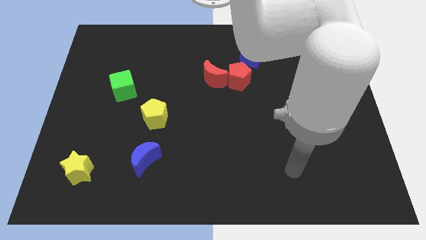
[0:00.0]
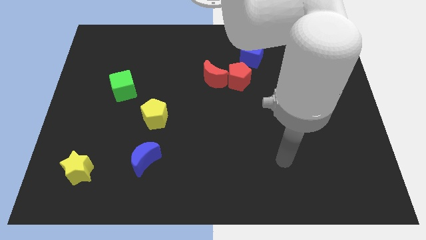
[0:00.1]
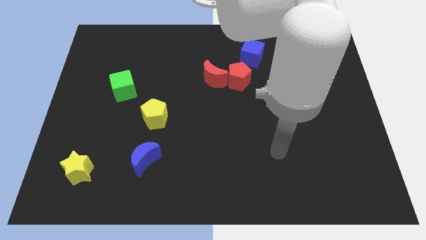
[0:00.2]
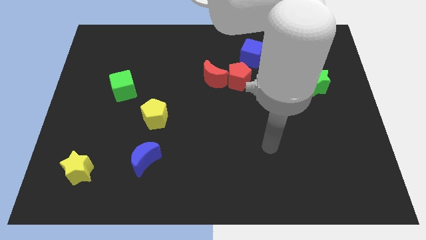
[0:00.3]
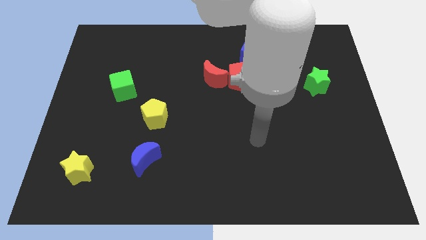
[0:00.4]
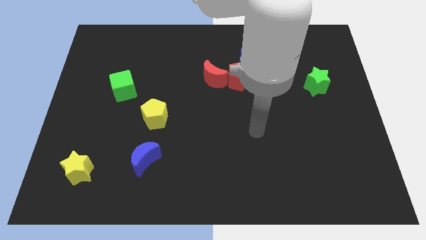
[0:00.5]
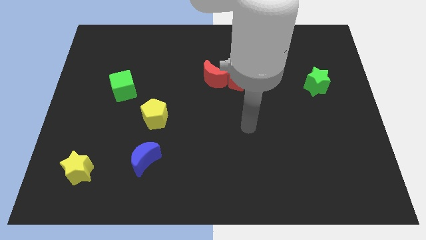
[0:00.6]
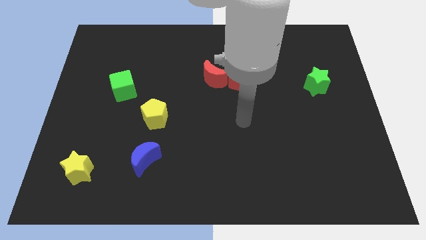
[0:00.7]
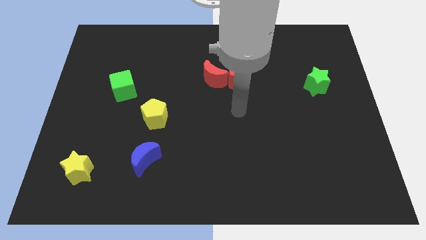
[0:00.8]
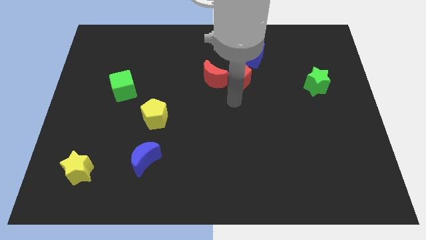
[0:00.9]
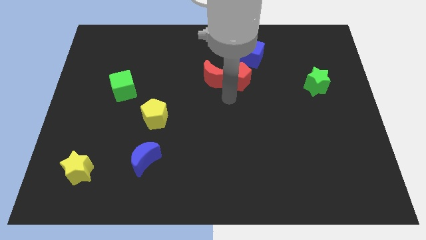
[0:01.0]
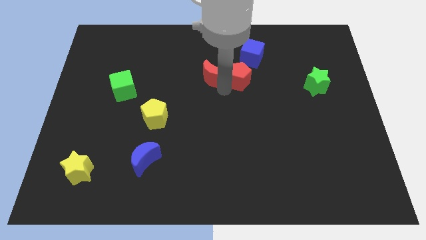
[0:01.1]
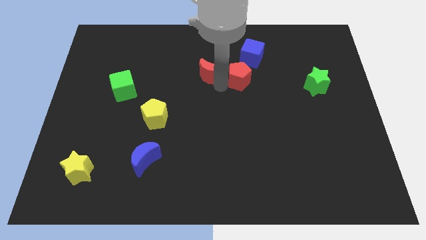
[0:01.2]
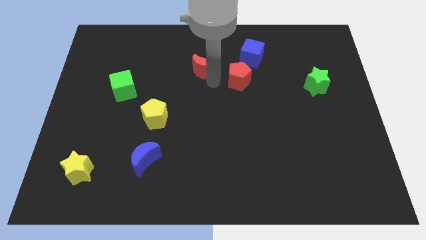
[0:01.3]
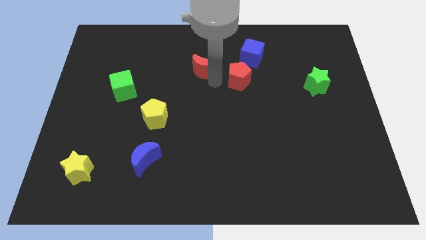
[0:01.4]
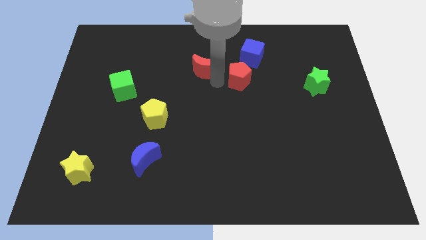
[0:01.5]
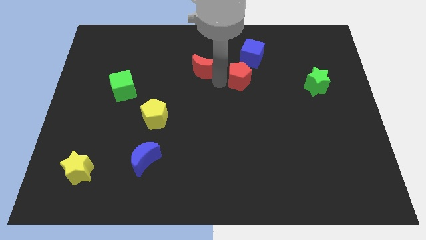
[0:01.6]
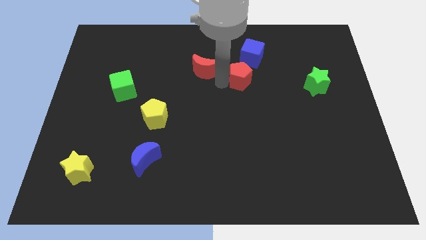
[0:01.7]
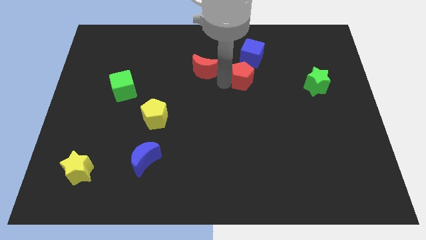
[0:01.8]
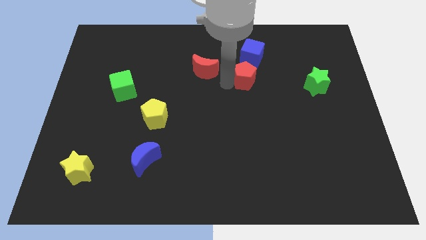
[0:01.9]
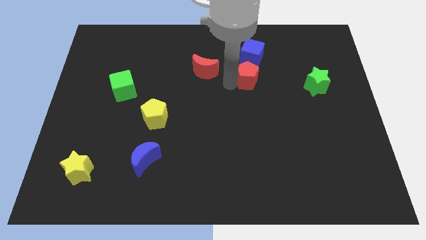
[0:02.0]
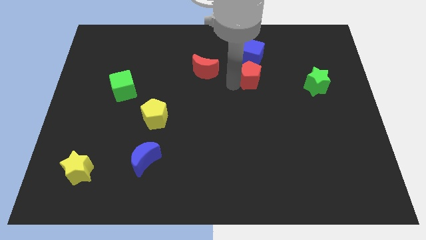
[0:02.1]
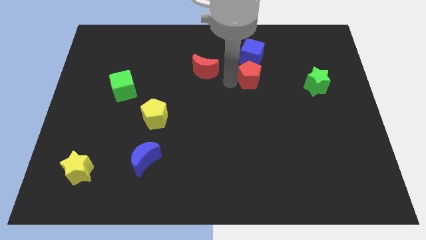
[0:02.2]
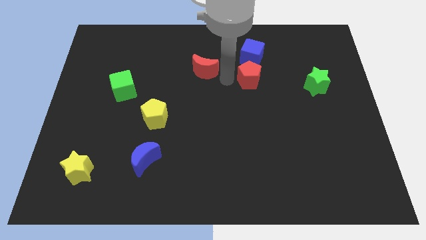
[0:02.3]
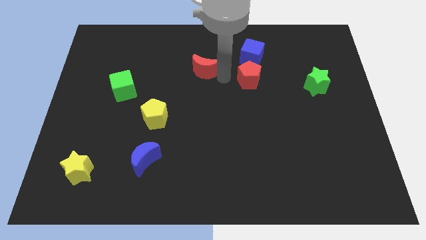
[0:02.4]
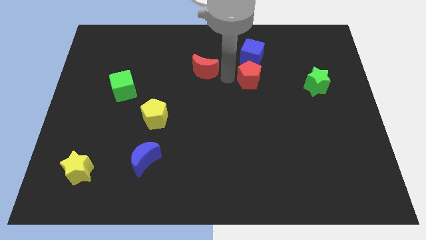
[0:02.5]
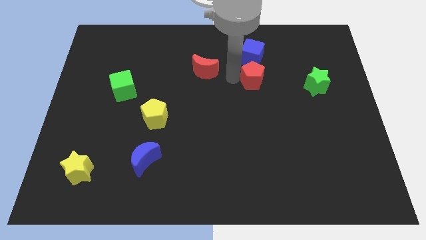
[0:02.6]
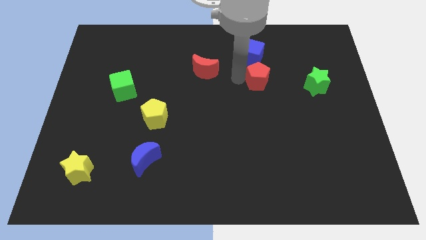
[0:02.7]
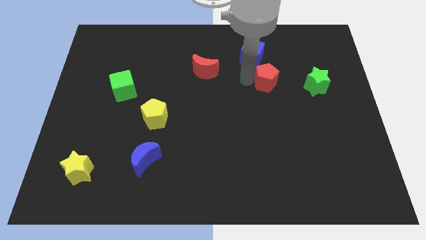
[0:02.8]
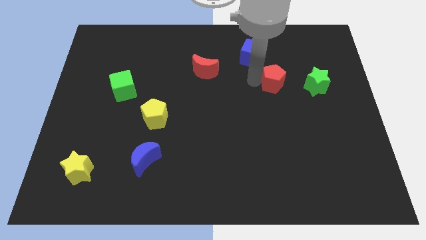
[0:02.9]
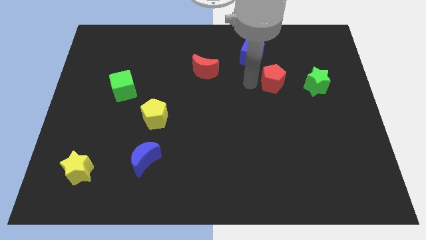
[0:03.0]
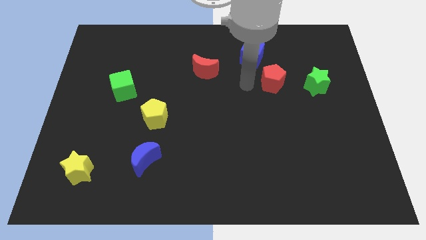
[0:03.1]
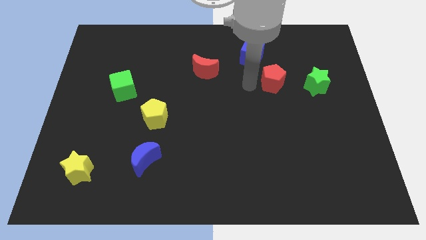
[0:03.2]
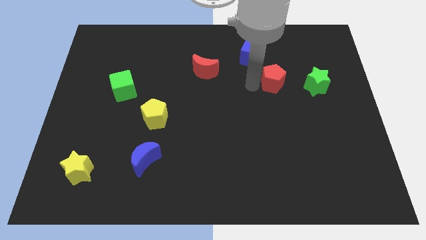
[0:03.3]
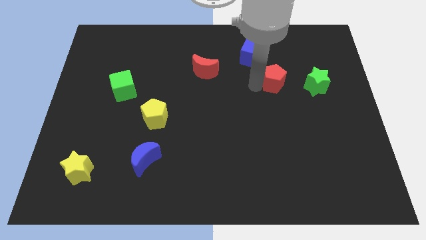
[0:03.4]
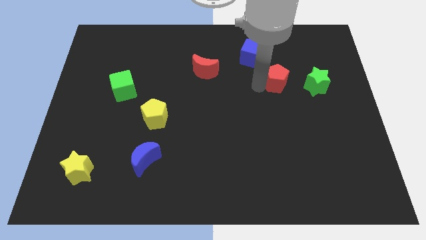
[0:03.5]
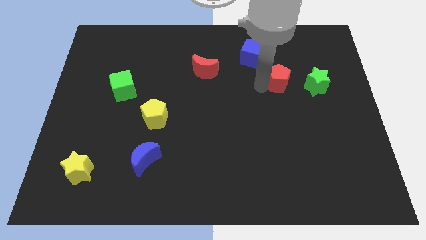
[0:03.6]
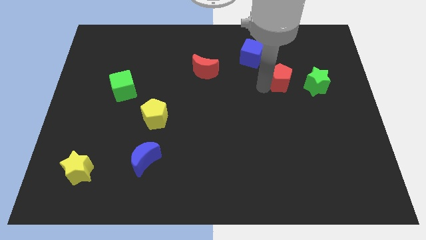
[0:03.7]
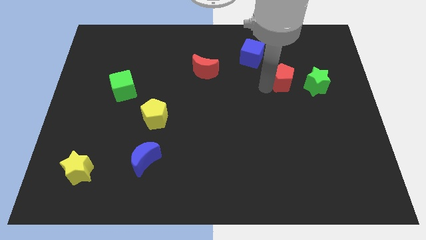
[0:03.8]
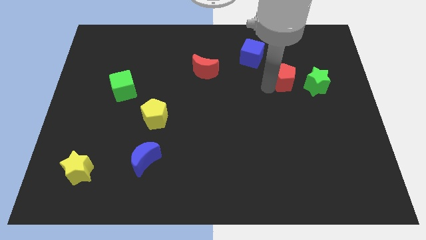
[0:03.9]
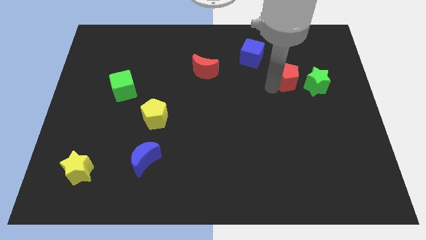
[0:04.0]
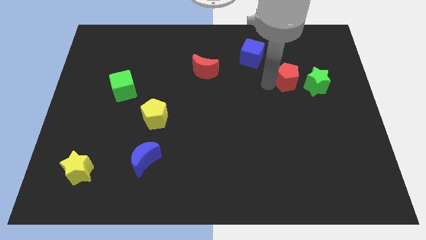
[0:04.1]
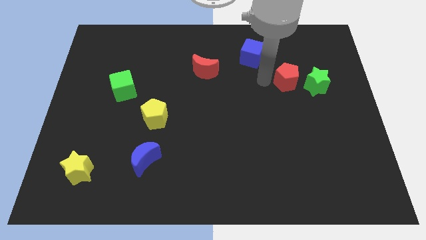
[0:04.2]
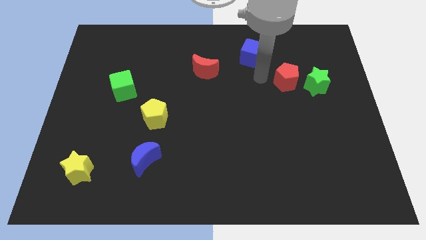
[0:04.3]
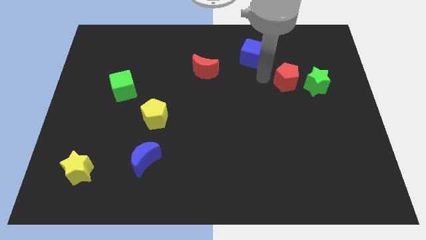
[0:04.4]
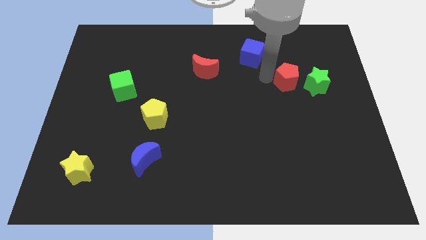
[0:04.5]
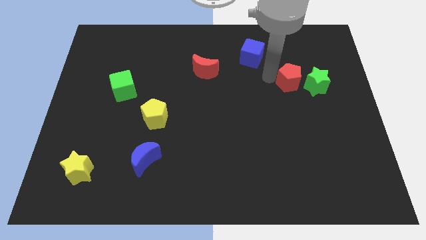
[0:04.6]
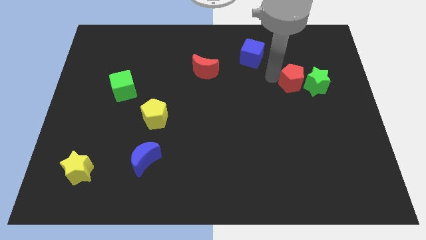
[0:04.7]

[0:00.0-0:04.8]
move the red pentagon towards the green star

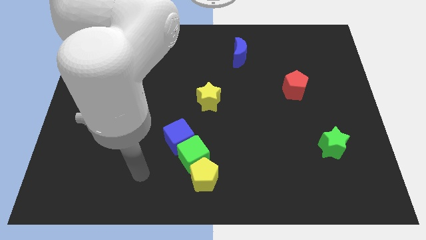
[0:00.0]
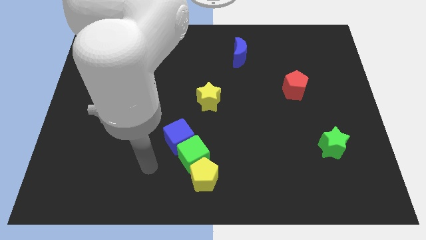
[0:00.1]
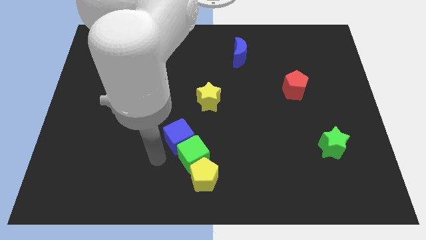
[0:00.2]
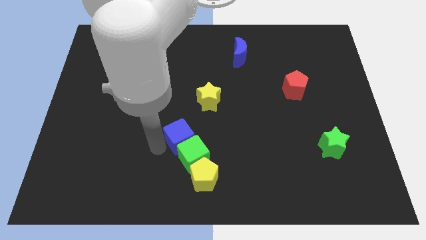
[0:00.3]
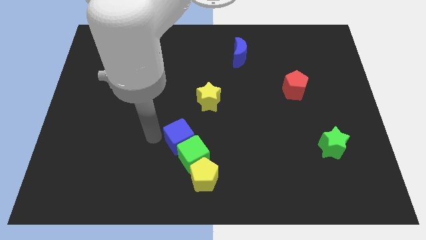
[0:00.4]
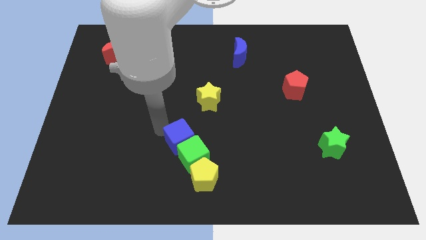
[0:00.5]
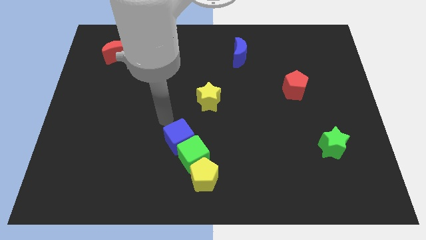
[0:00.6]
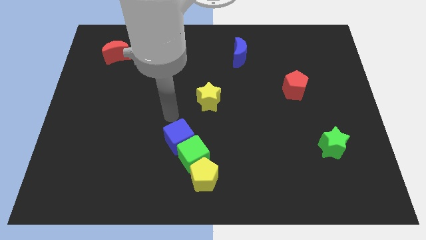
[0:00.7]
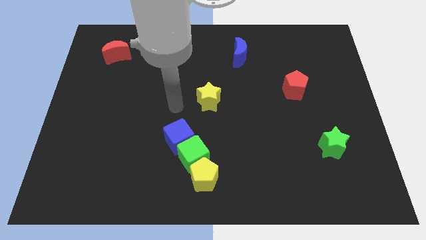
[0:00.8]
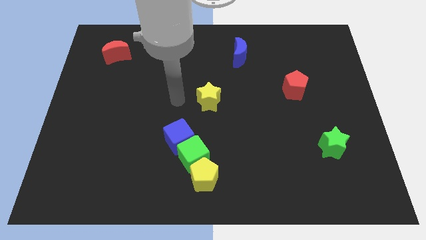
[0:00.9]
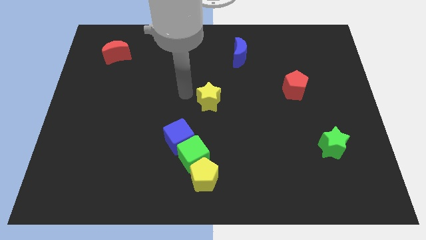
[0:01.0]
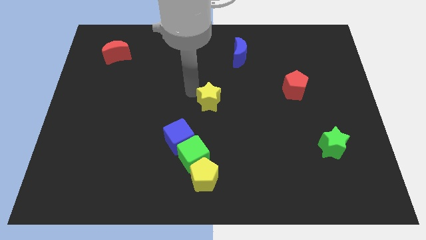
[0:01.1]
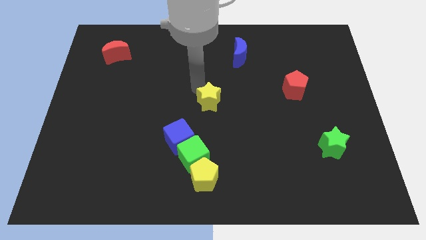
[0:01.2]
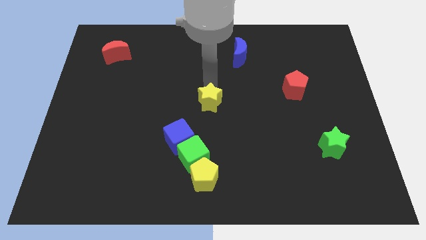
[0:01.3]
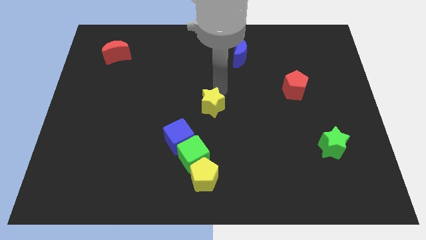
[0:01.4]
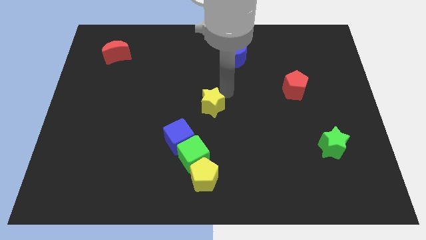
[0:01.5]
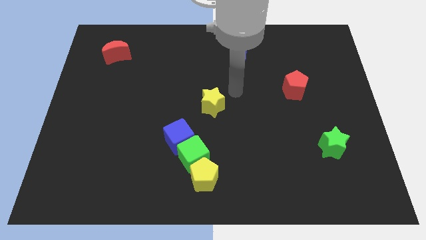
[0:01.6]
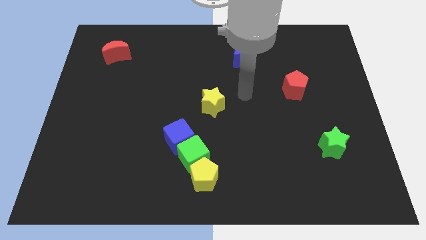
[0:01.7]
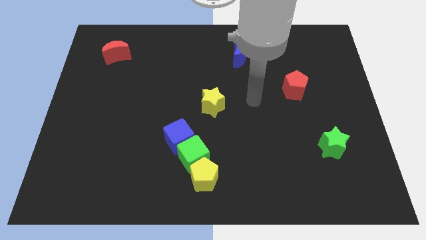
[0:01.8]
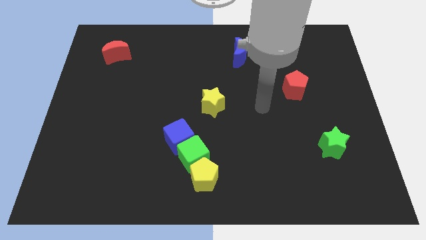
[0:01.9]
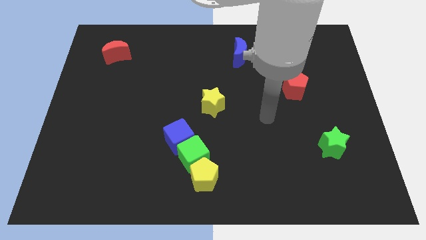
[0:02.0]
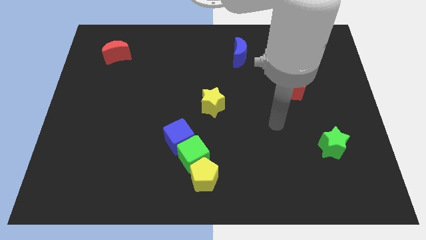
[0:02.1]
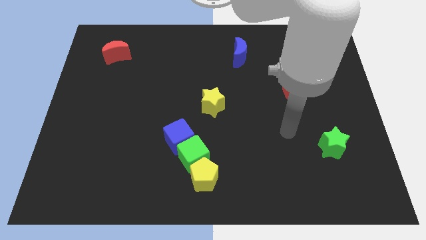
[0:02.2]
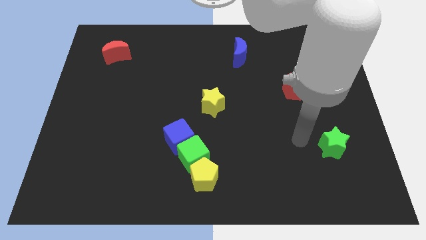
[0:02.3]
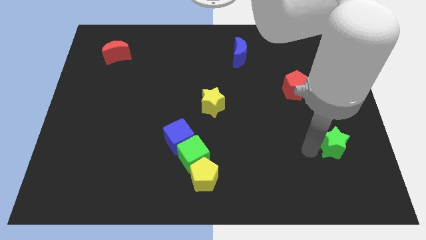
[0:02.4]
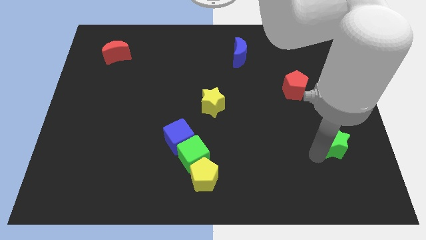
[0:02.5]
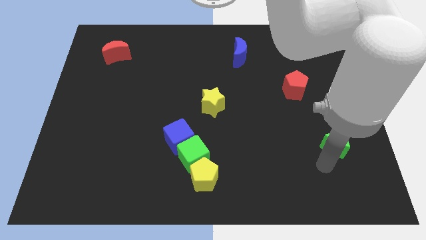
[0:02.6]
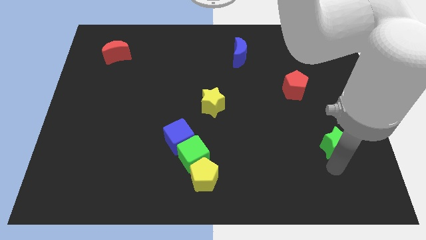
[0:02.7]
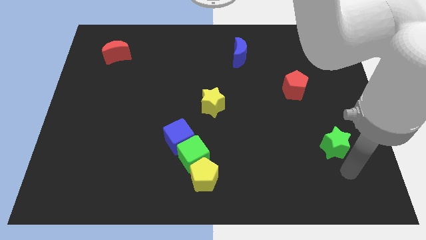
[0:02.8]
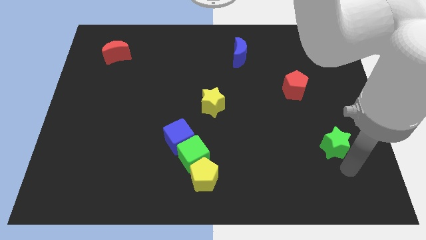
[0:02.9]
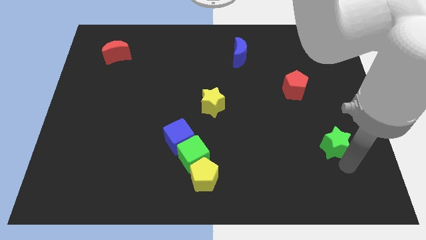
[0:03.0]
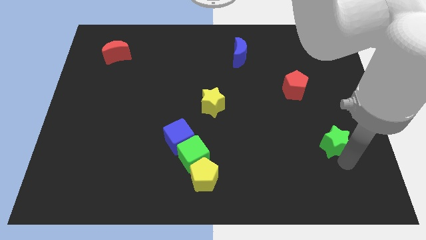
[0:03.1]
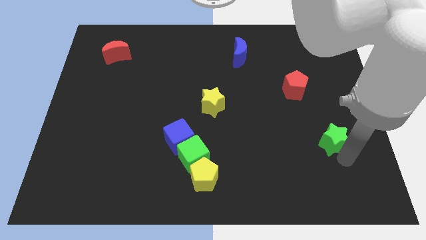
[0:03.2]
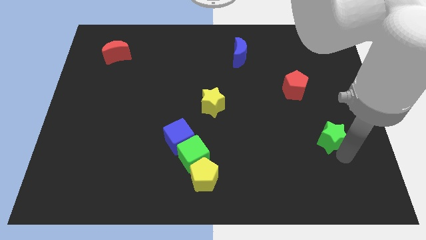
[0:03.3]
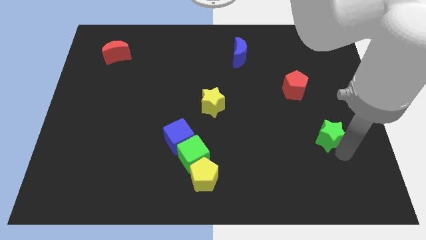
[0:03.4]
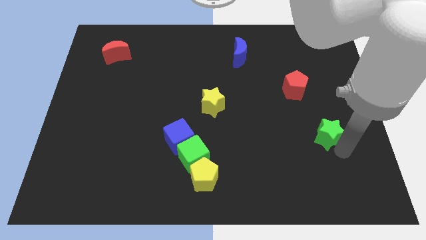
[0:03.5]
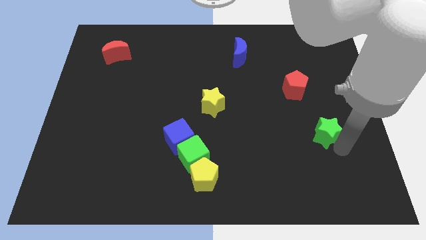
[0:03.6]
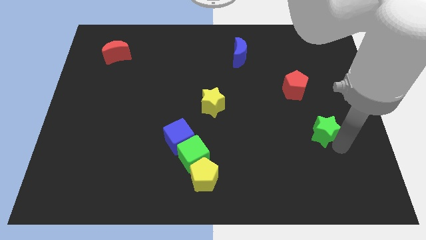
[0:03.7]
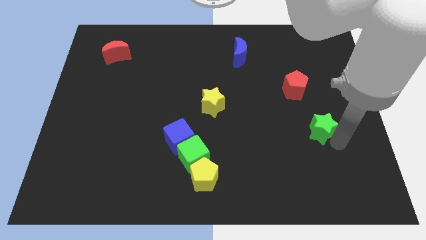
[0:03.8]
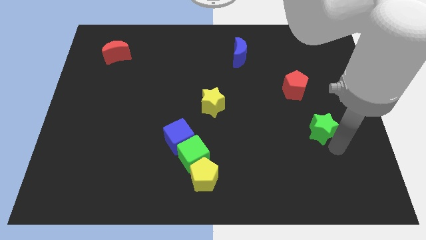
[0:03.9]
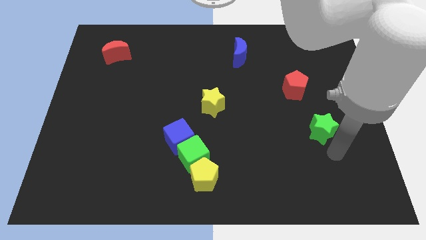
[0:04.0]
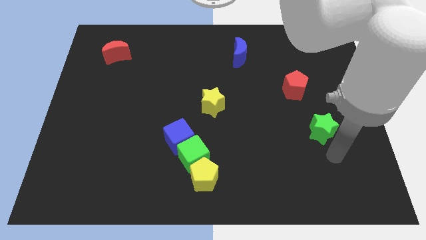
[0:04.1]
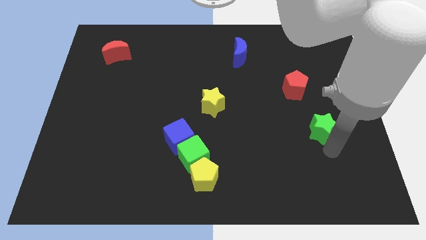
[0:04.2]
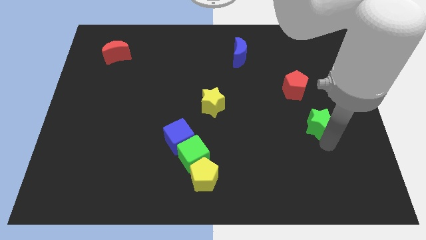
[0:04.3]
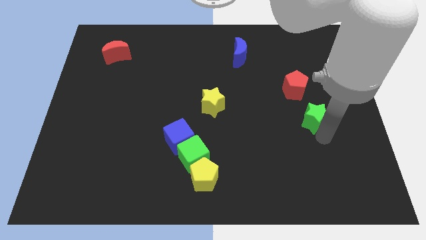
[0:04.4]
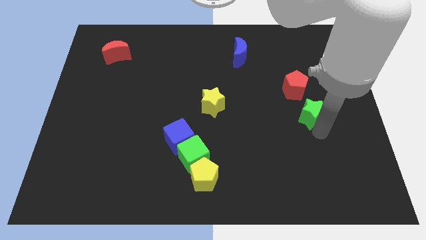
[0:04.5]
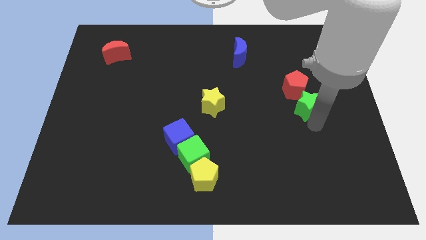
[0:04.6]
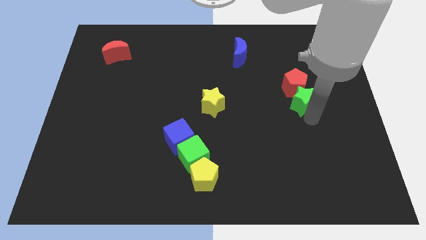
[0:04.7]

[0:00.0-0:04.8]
push the green star towards the red pentagon
